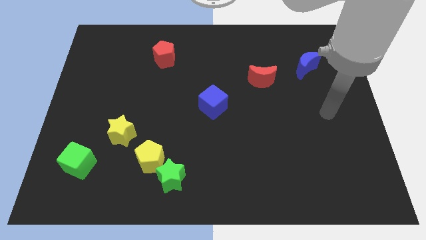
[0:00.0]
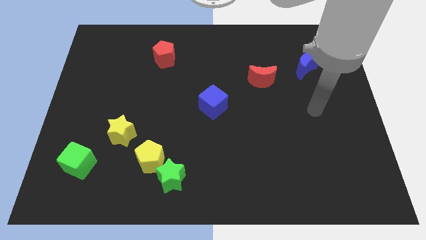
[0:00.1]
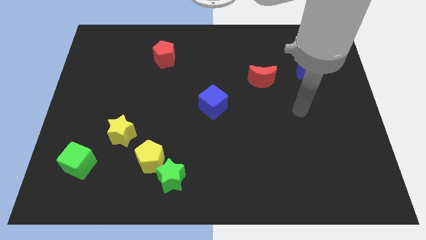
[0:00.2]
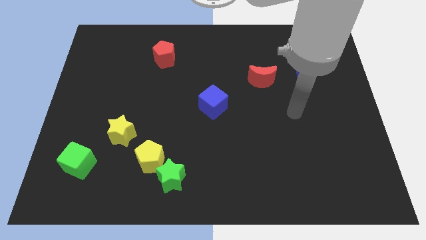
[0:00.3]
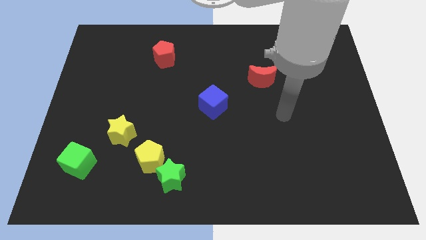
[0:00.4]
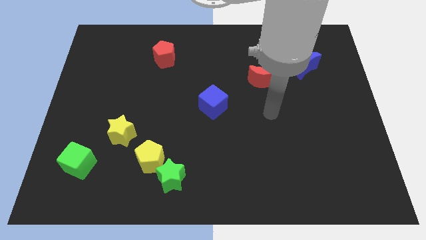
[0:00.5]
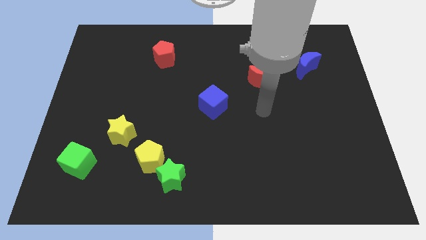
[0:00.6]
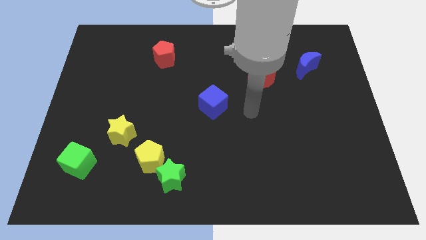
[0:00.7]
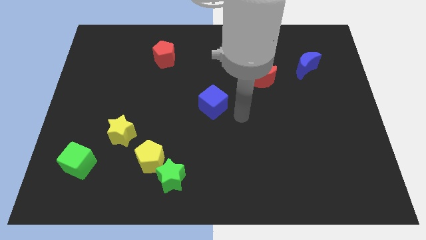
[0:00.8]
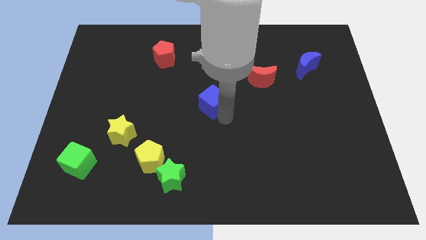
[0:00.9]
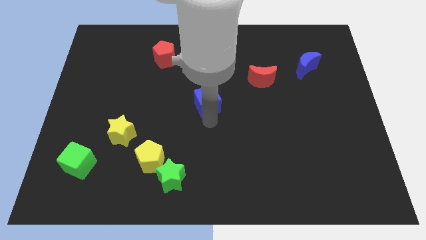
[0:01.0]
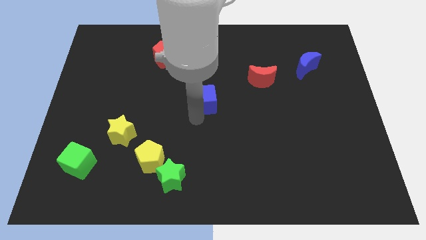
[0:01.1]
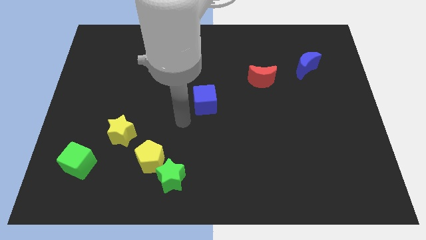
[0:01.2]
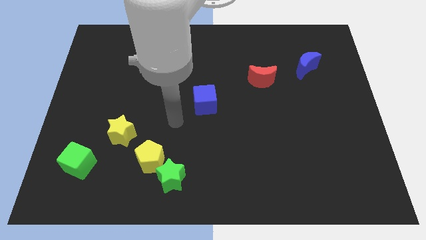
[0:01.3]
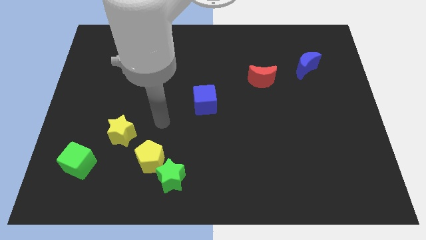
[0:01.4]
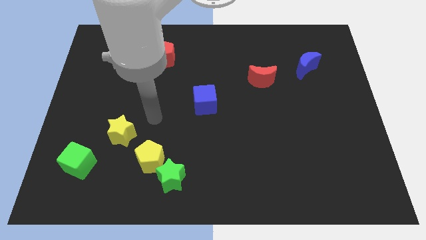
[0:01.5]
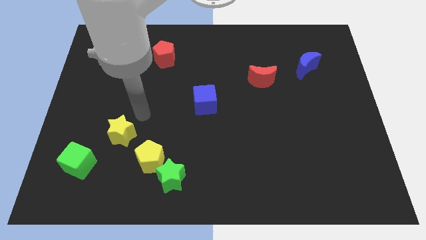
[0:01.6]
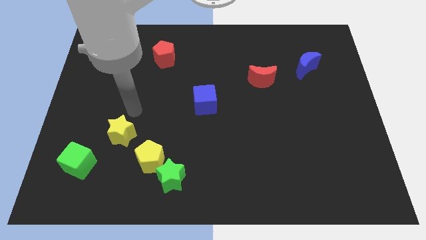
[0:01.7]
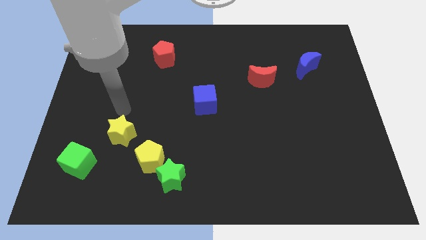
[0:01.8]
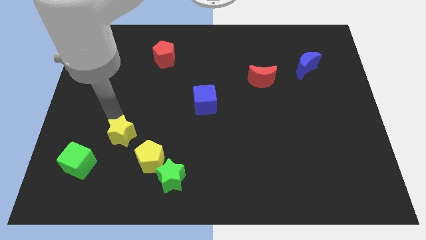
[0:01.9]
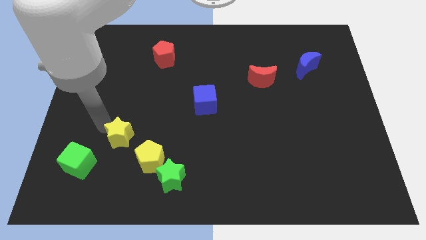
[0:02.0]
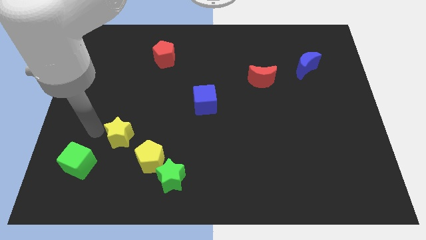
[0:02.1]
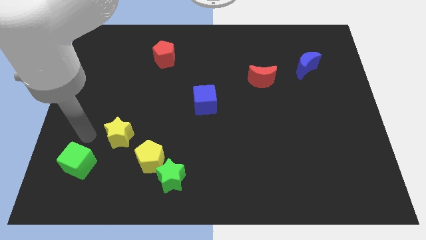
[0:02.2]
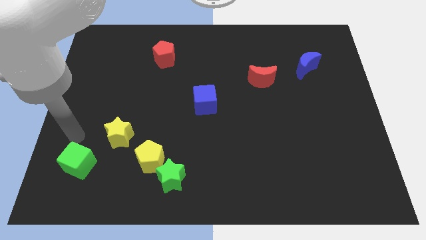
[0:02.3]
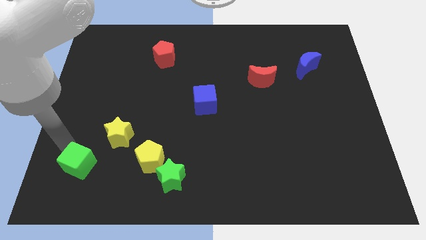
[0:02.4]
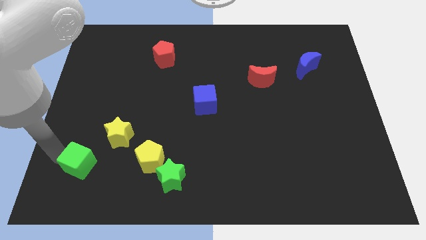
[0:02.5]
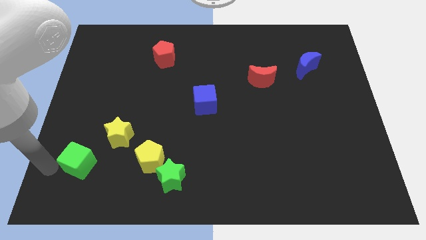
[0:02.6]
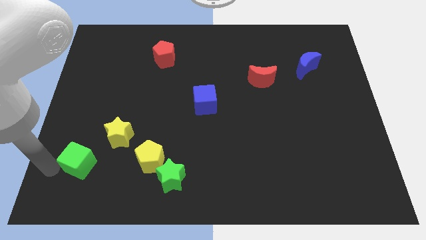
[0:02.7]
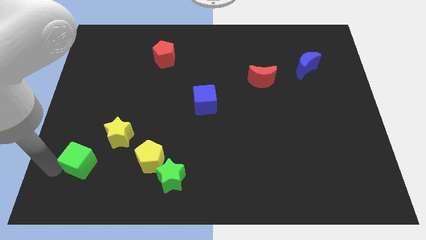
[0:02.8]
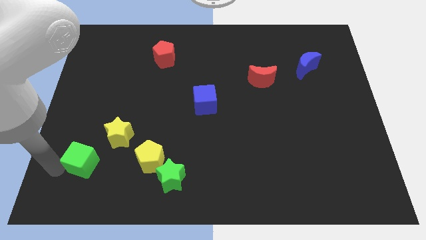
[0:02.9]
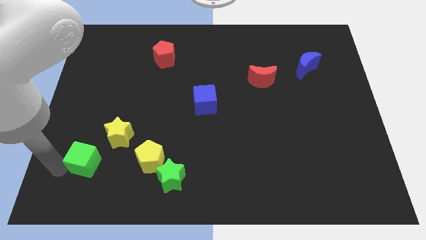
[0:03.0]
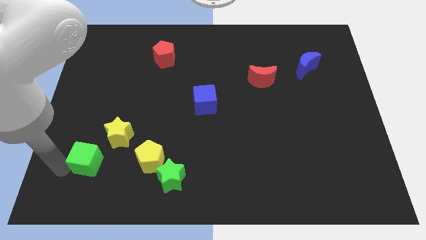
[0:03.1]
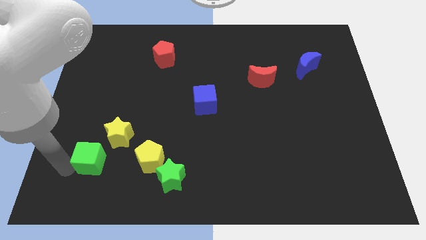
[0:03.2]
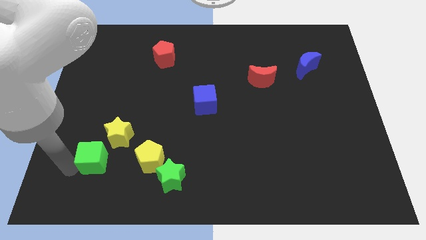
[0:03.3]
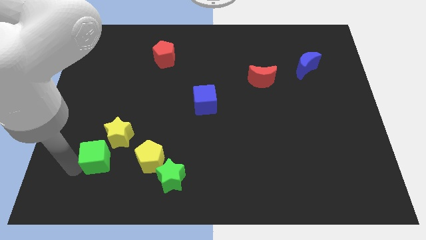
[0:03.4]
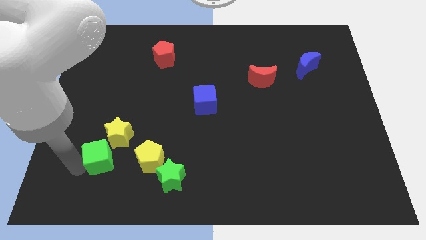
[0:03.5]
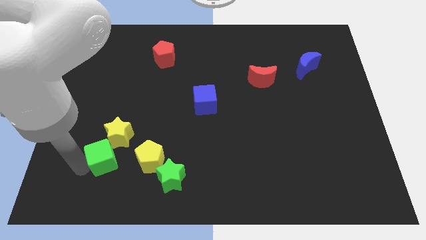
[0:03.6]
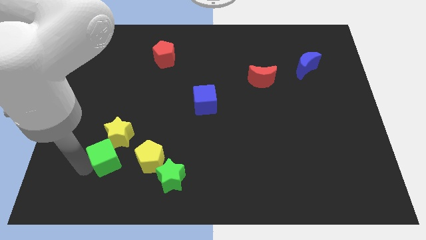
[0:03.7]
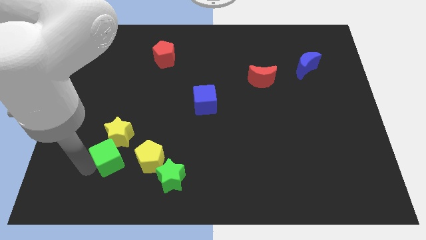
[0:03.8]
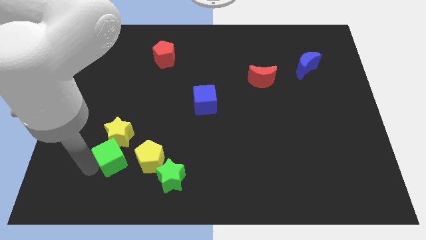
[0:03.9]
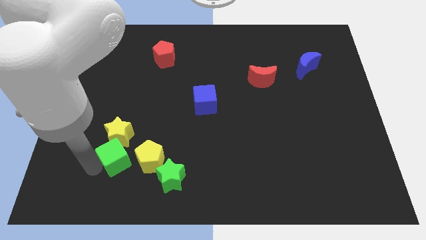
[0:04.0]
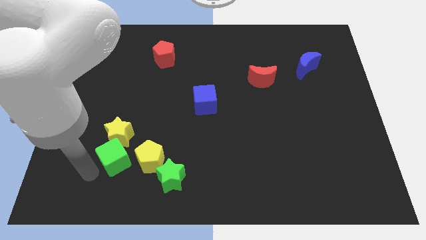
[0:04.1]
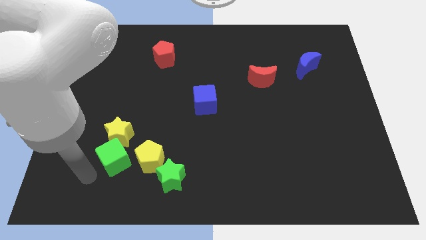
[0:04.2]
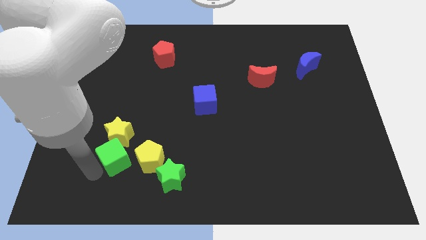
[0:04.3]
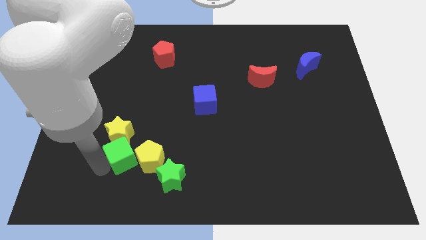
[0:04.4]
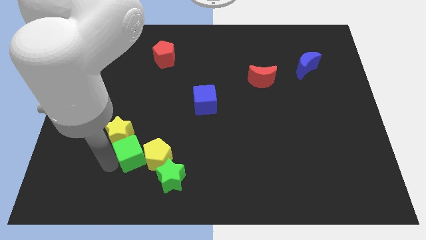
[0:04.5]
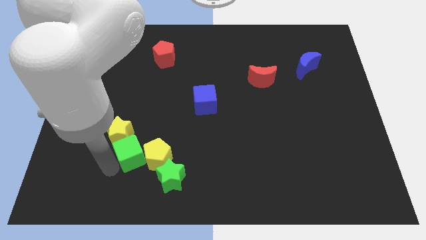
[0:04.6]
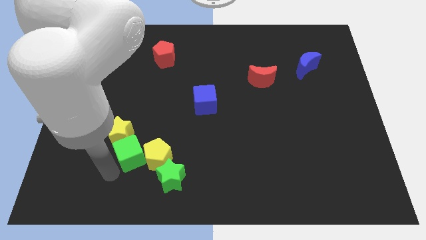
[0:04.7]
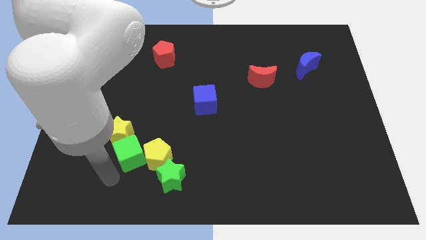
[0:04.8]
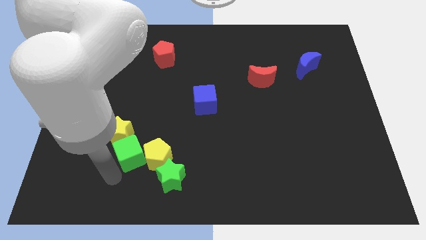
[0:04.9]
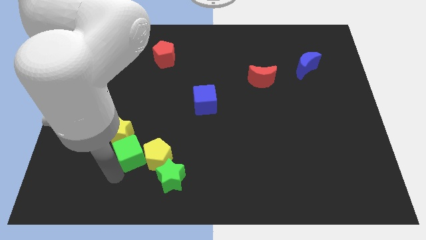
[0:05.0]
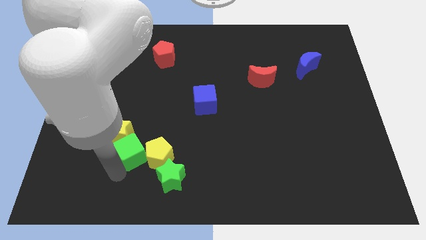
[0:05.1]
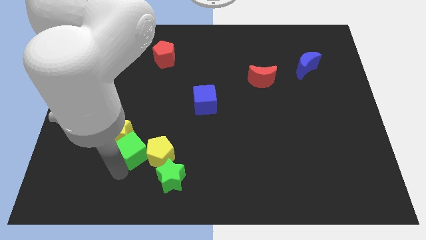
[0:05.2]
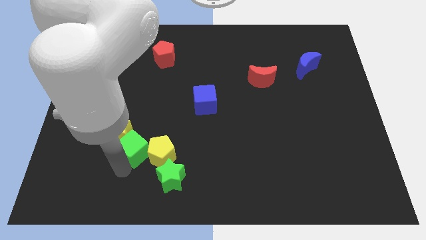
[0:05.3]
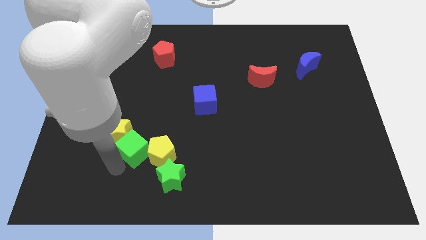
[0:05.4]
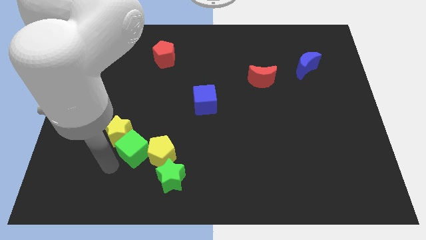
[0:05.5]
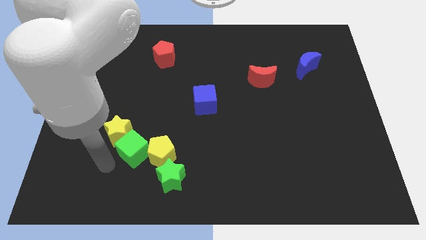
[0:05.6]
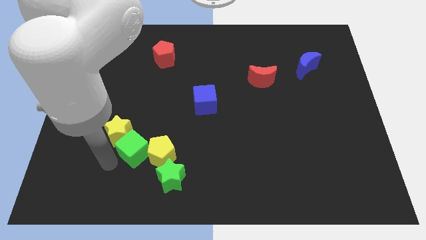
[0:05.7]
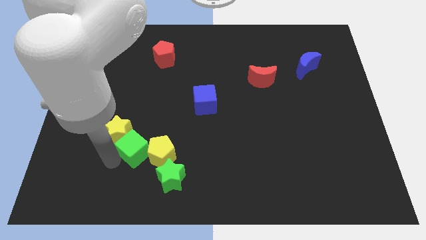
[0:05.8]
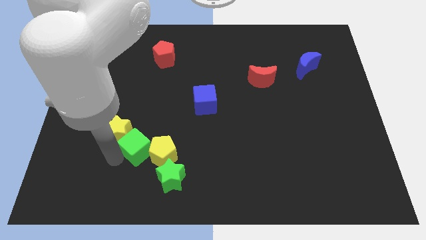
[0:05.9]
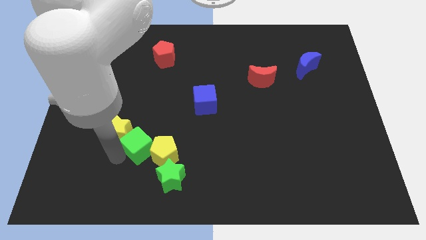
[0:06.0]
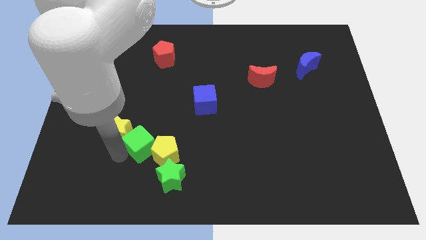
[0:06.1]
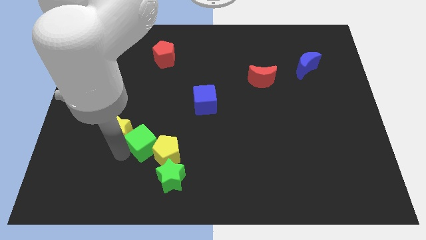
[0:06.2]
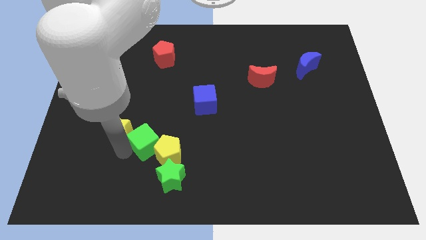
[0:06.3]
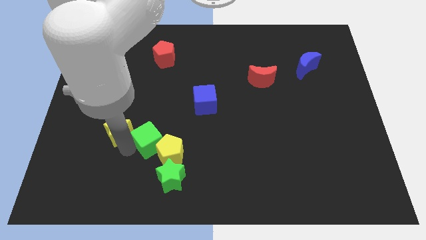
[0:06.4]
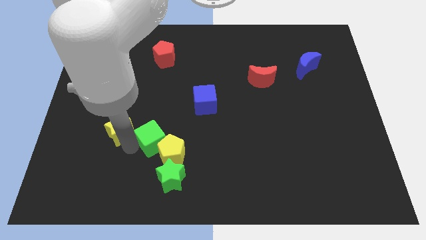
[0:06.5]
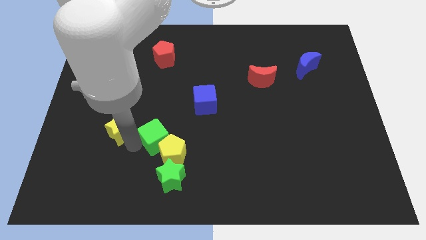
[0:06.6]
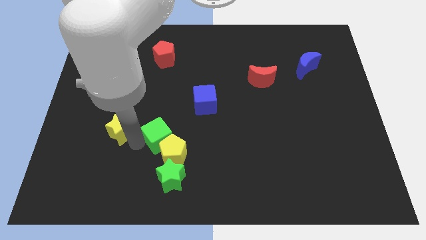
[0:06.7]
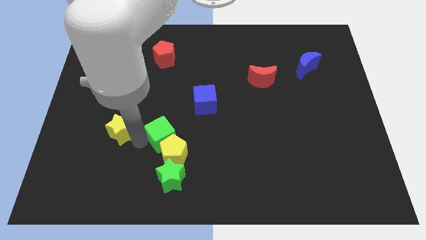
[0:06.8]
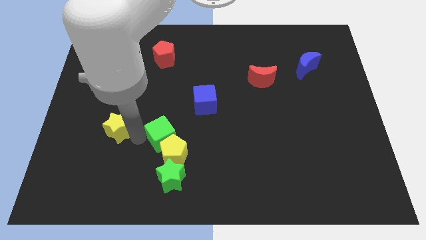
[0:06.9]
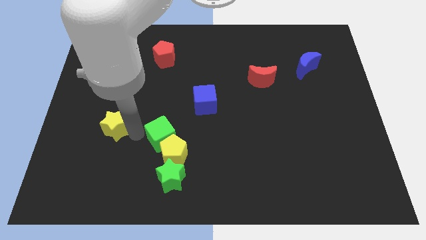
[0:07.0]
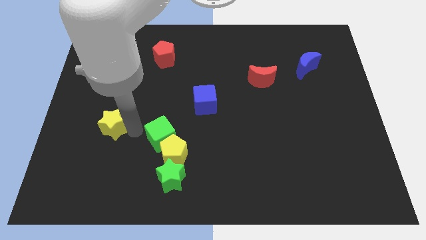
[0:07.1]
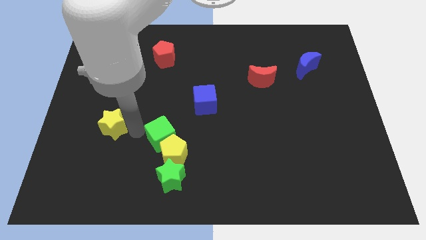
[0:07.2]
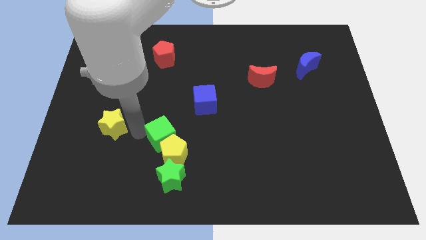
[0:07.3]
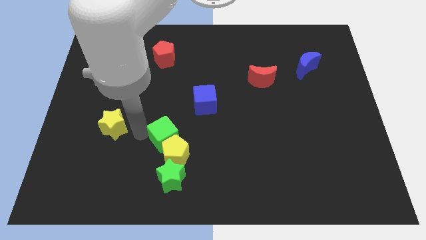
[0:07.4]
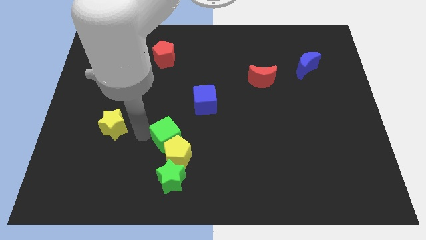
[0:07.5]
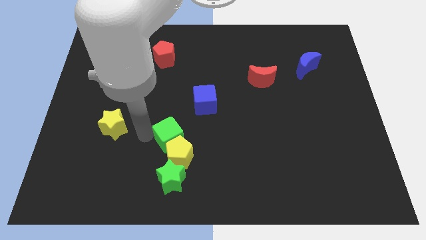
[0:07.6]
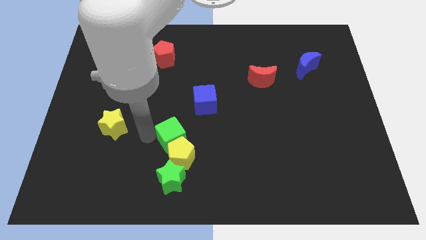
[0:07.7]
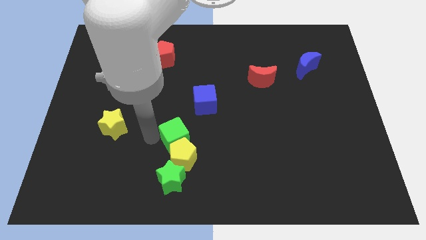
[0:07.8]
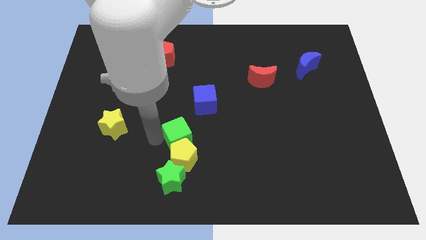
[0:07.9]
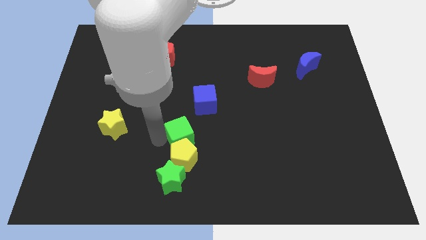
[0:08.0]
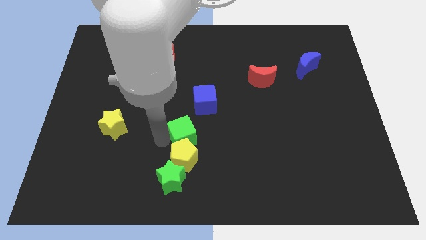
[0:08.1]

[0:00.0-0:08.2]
move the green cube right
